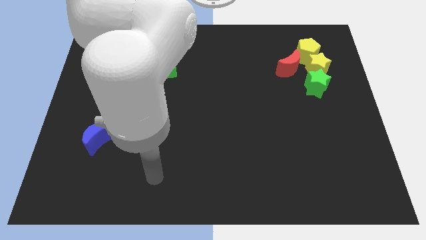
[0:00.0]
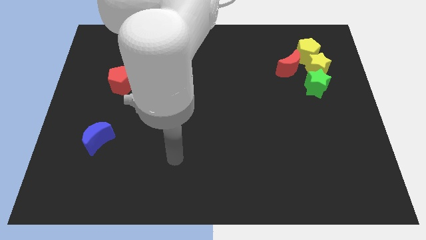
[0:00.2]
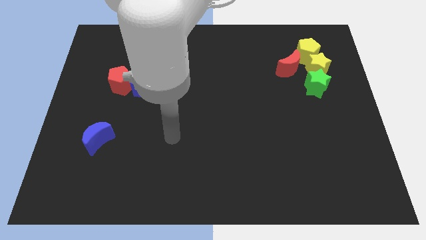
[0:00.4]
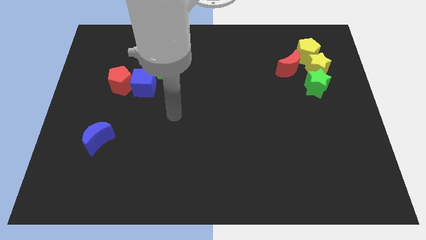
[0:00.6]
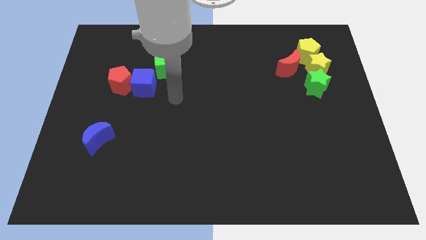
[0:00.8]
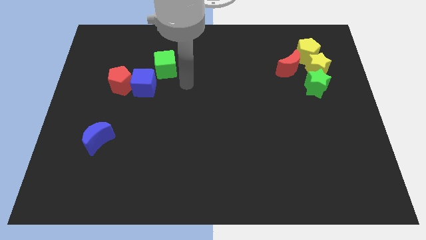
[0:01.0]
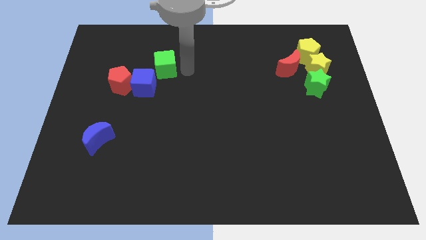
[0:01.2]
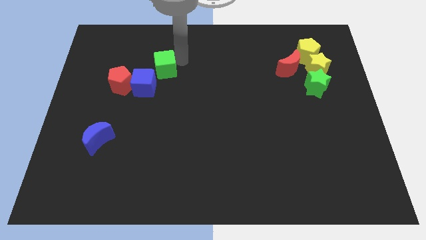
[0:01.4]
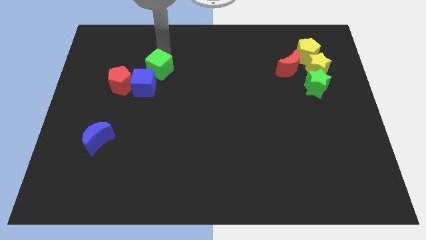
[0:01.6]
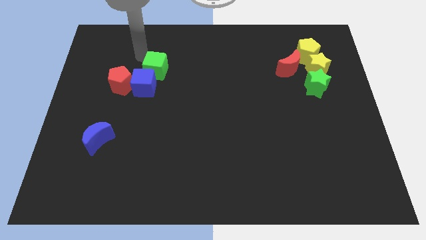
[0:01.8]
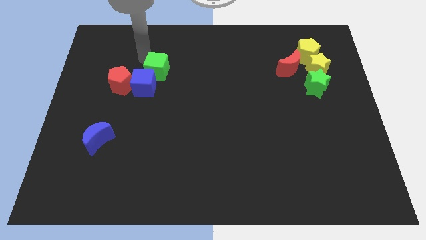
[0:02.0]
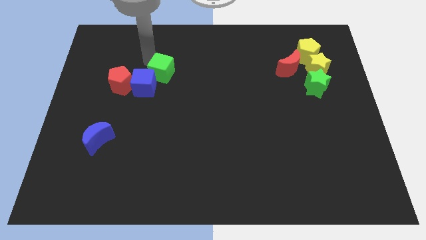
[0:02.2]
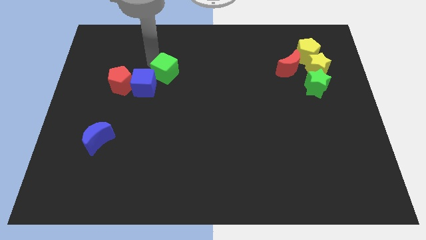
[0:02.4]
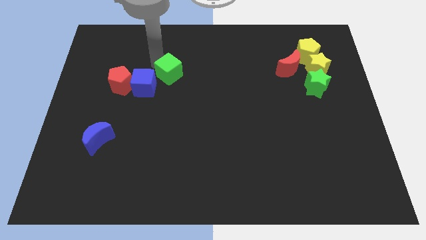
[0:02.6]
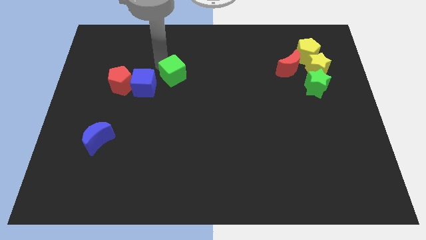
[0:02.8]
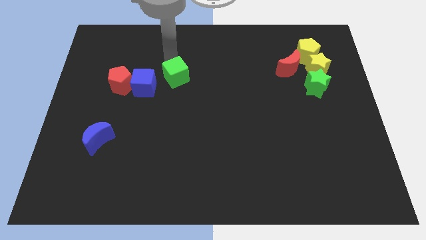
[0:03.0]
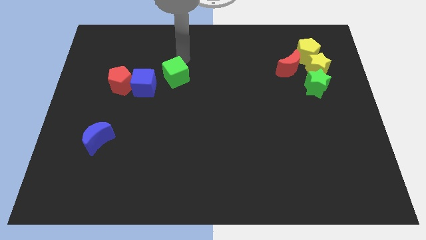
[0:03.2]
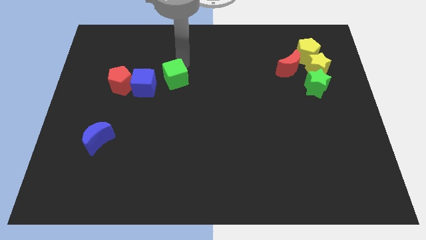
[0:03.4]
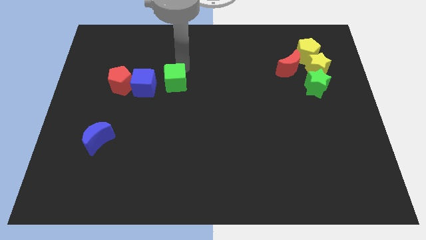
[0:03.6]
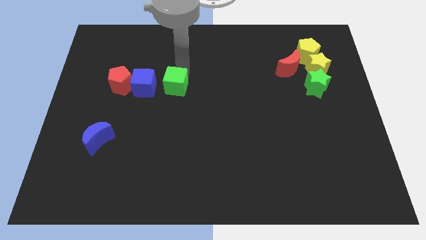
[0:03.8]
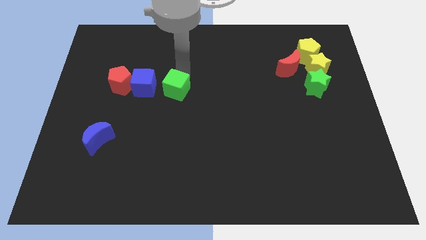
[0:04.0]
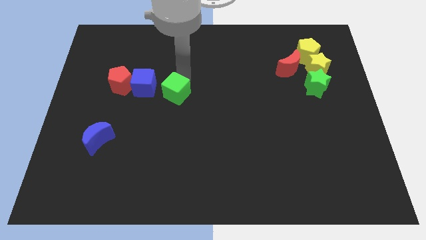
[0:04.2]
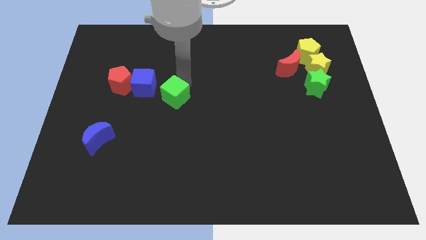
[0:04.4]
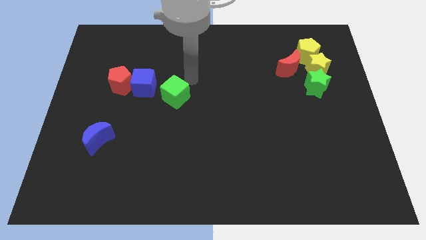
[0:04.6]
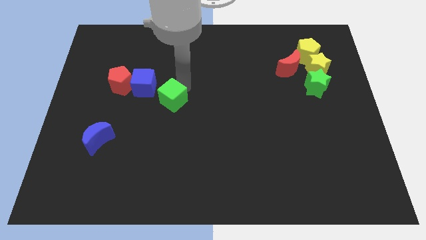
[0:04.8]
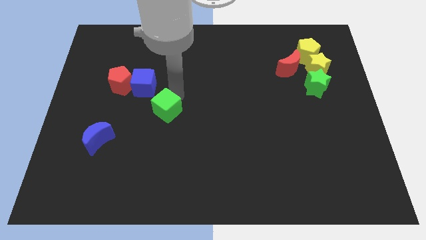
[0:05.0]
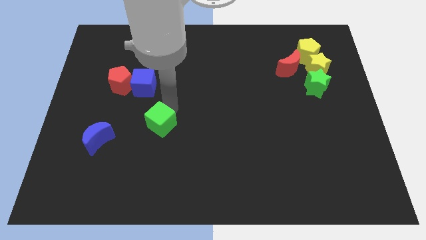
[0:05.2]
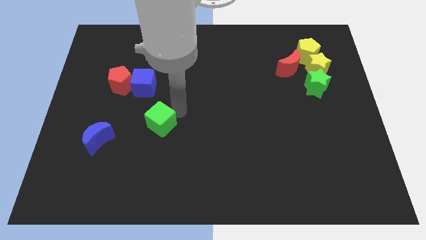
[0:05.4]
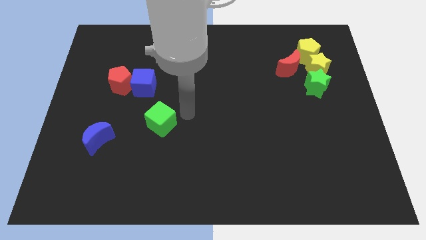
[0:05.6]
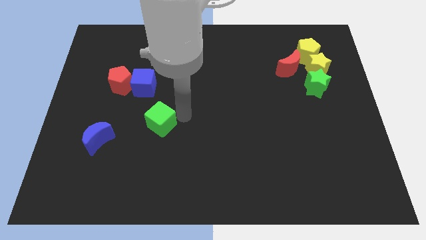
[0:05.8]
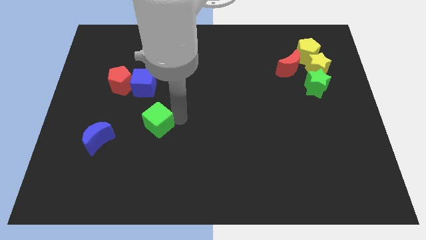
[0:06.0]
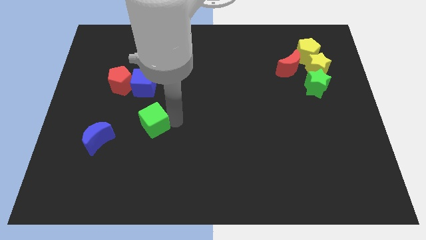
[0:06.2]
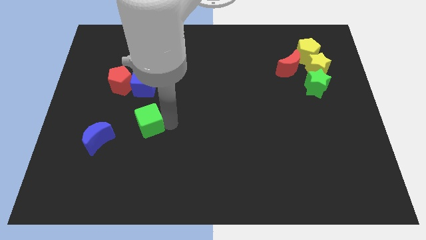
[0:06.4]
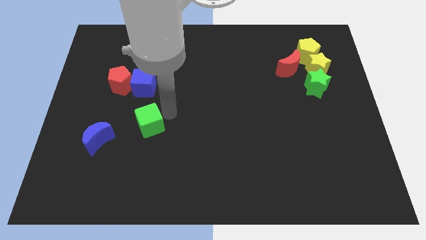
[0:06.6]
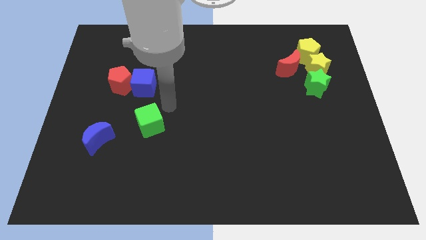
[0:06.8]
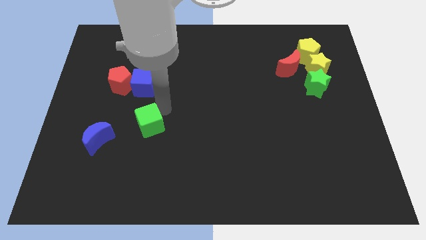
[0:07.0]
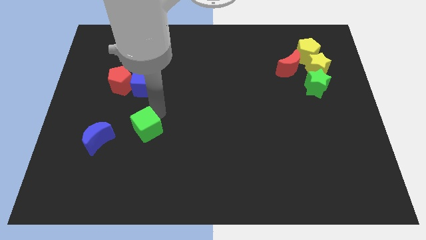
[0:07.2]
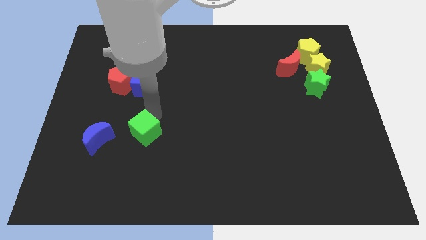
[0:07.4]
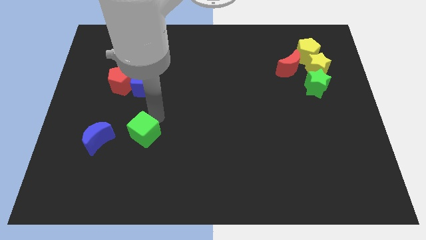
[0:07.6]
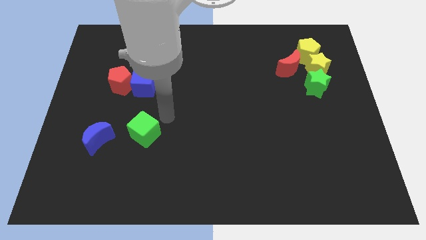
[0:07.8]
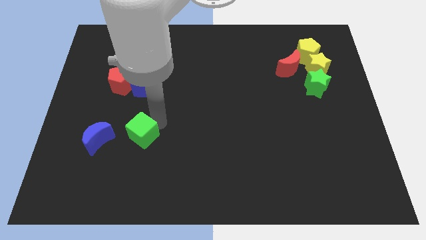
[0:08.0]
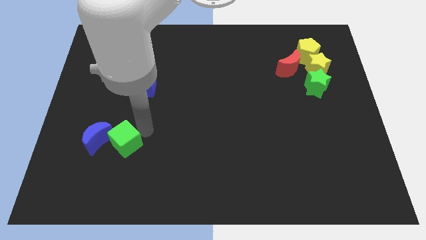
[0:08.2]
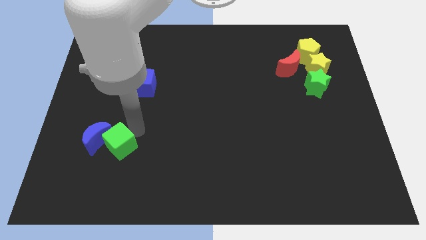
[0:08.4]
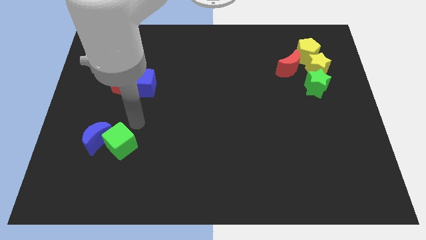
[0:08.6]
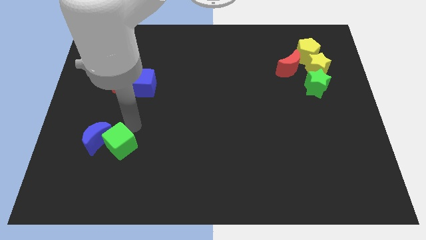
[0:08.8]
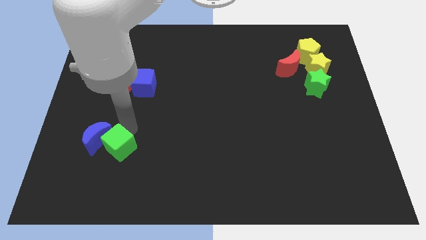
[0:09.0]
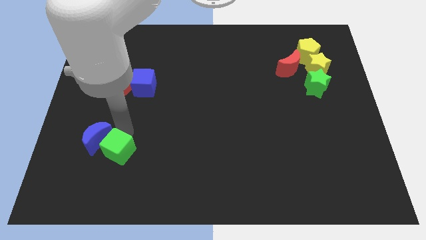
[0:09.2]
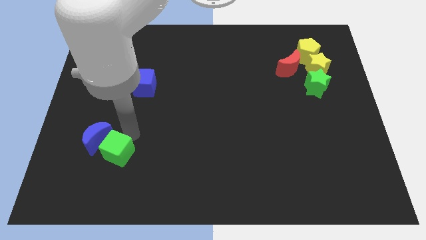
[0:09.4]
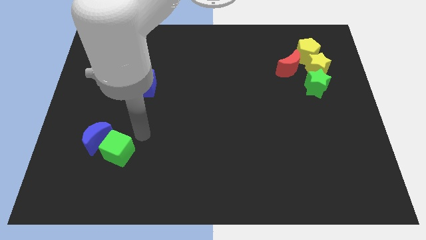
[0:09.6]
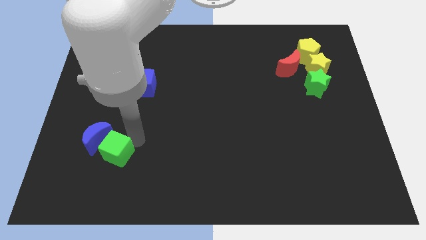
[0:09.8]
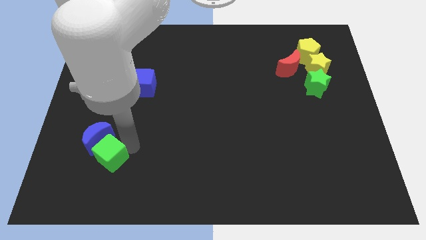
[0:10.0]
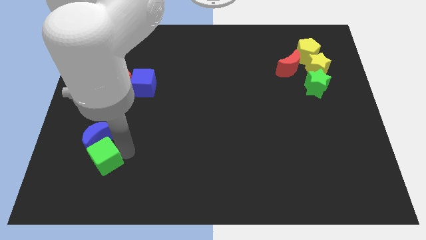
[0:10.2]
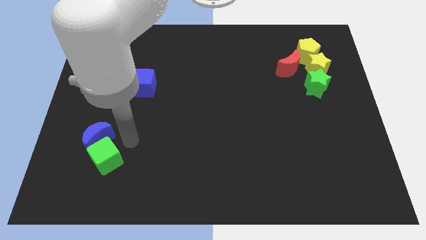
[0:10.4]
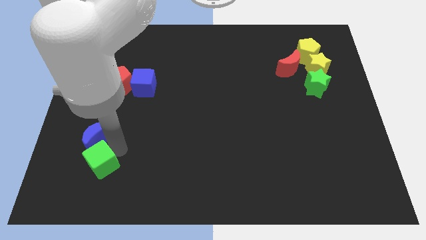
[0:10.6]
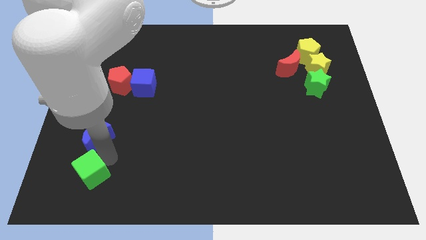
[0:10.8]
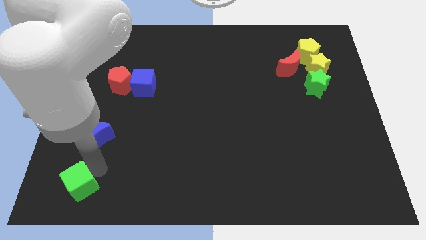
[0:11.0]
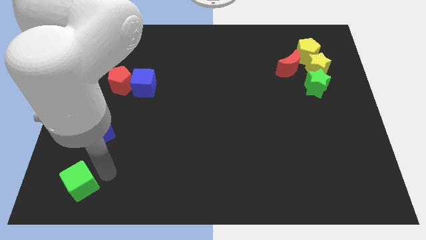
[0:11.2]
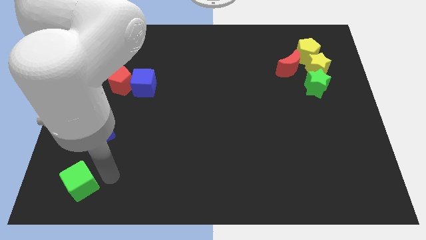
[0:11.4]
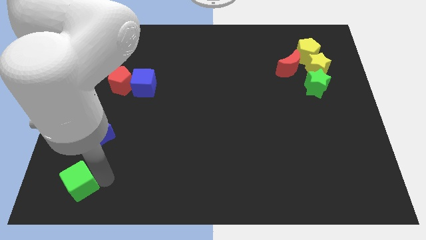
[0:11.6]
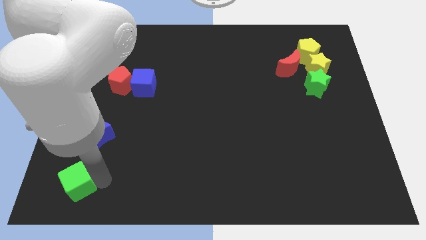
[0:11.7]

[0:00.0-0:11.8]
slide the green cube to the lower left corner

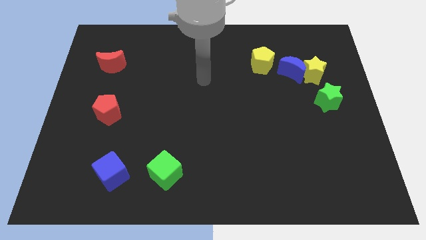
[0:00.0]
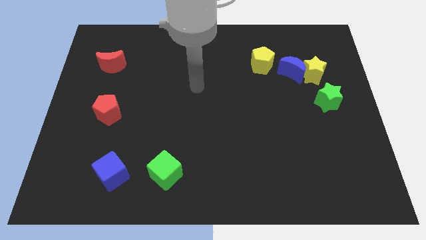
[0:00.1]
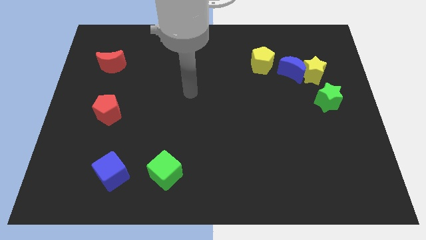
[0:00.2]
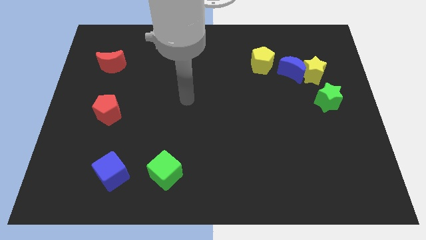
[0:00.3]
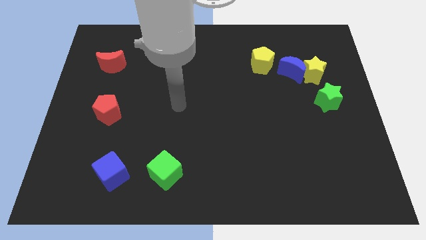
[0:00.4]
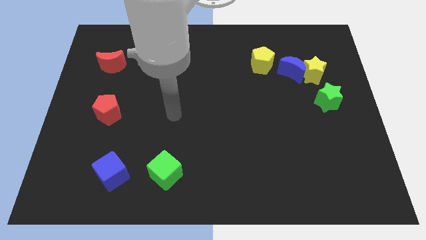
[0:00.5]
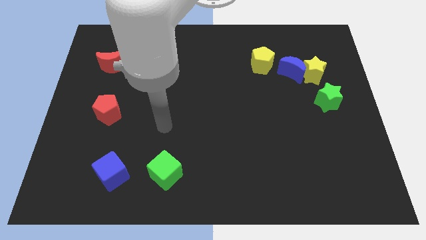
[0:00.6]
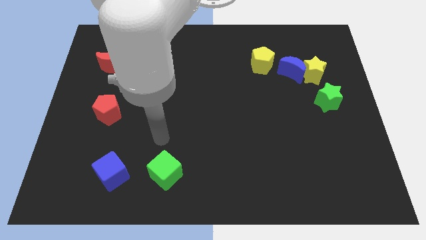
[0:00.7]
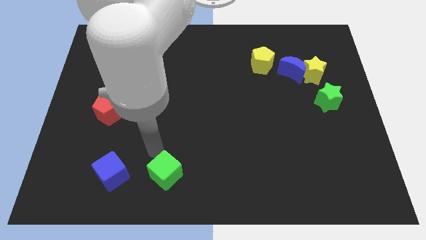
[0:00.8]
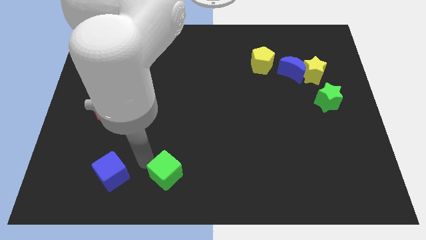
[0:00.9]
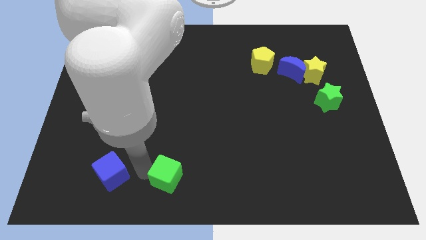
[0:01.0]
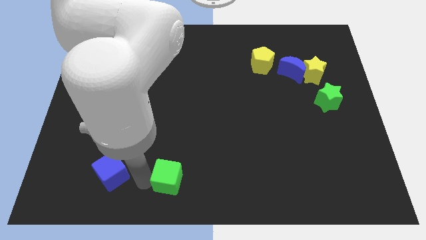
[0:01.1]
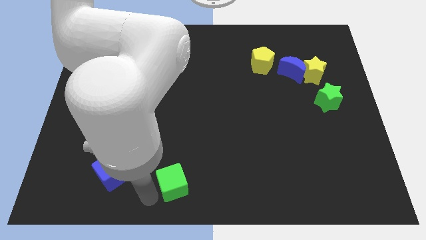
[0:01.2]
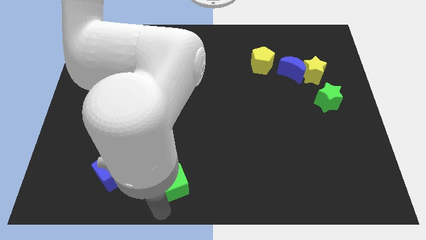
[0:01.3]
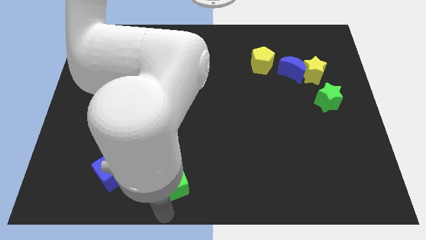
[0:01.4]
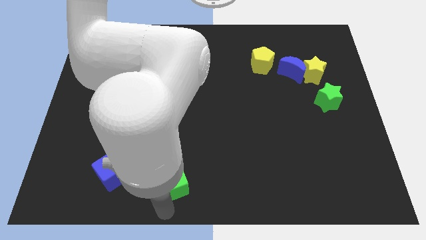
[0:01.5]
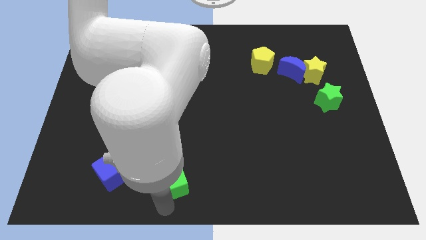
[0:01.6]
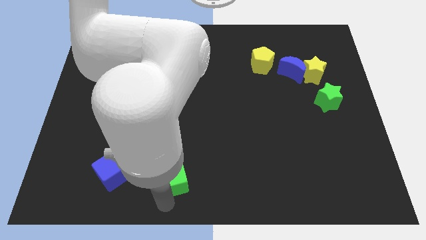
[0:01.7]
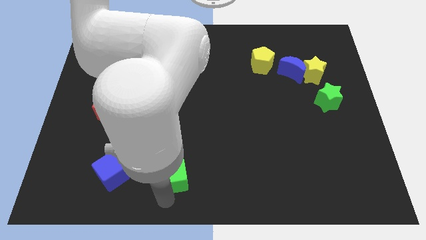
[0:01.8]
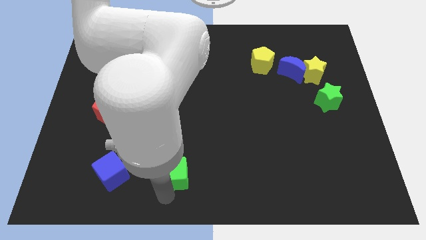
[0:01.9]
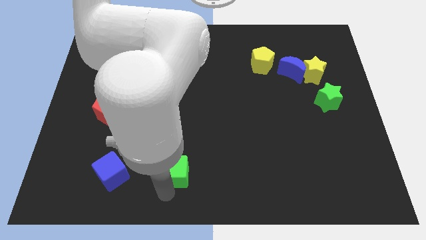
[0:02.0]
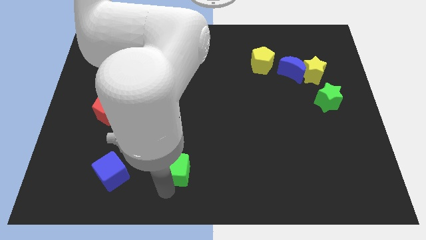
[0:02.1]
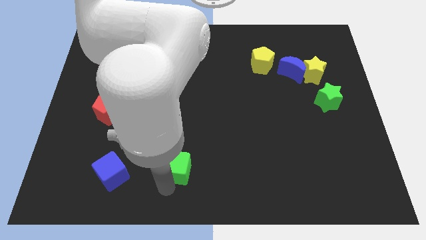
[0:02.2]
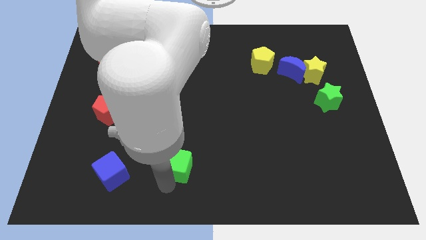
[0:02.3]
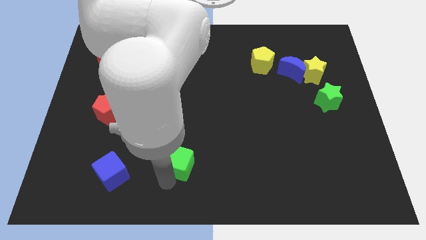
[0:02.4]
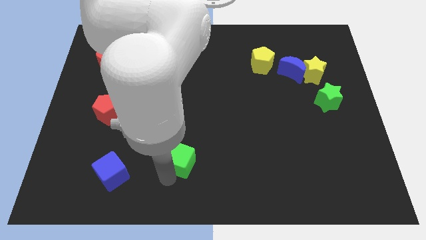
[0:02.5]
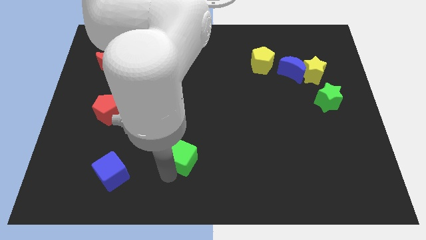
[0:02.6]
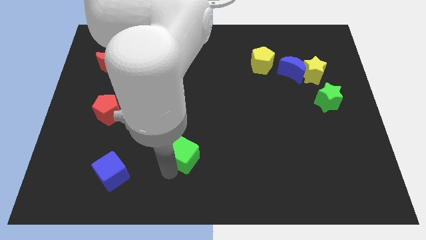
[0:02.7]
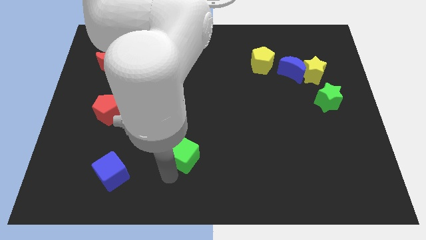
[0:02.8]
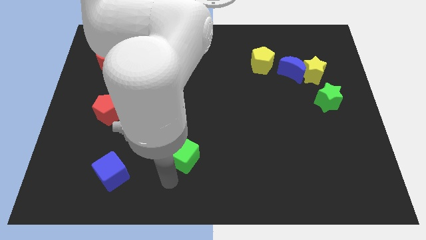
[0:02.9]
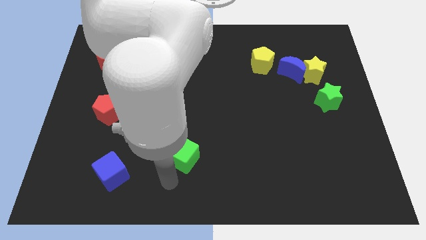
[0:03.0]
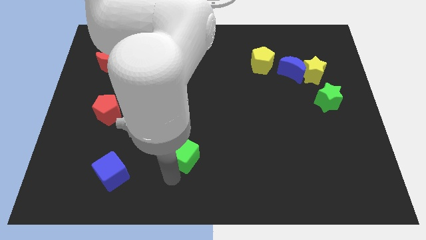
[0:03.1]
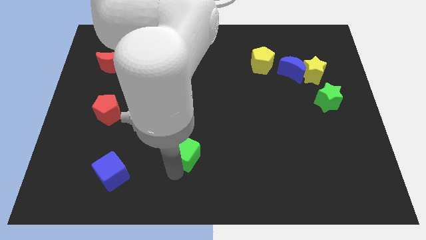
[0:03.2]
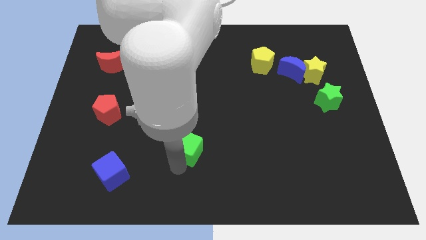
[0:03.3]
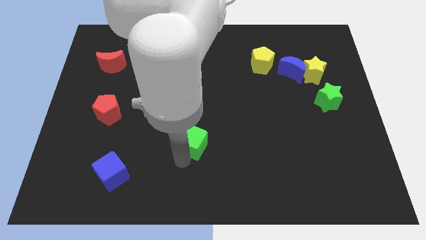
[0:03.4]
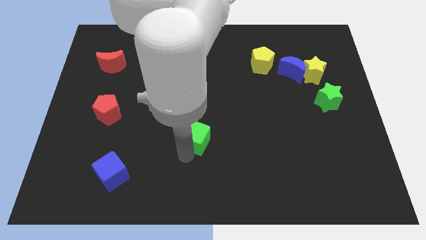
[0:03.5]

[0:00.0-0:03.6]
put the green cube to the middle of the board
